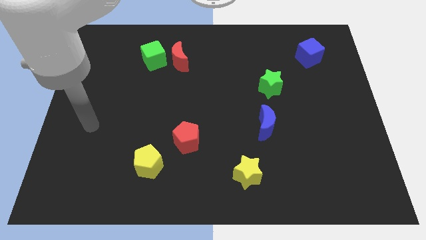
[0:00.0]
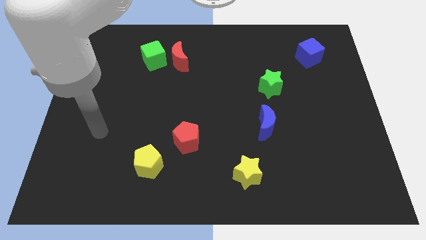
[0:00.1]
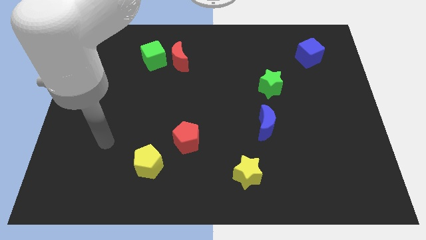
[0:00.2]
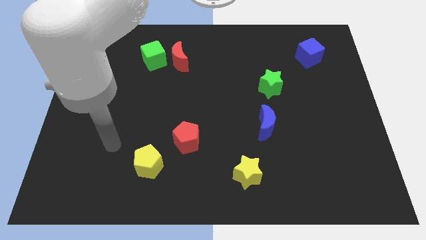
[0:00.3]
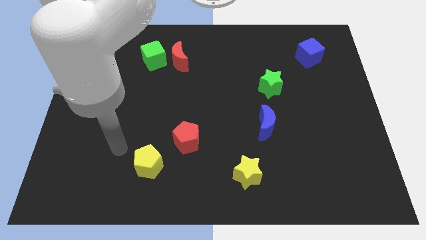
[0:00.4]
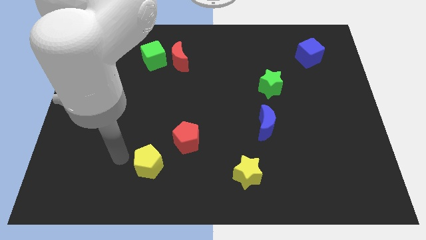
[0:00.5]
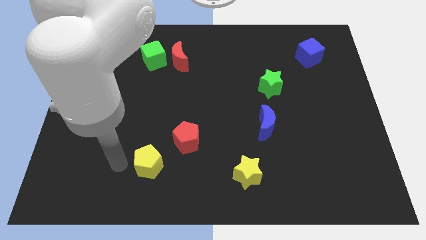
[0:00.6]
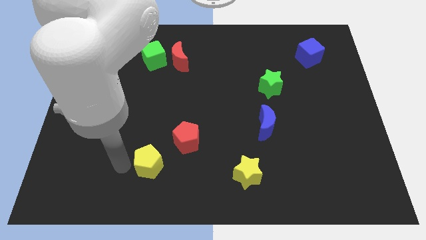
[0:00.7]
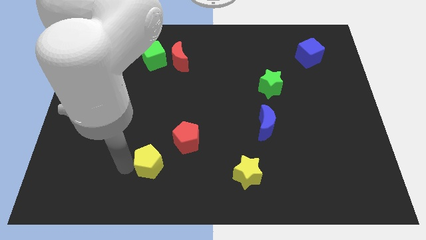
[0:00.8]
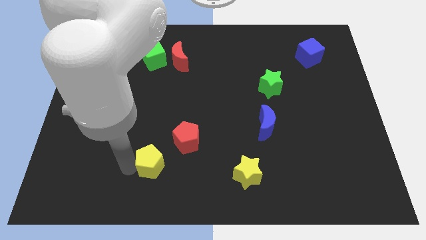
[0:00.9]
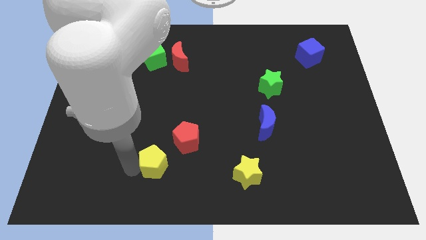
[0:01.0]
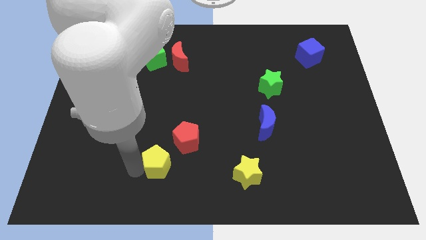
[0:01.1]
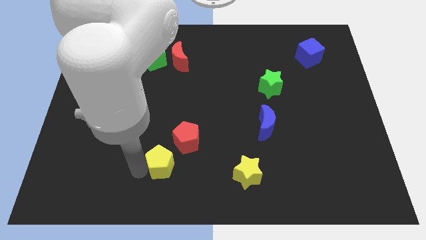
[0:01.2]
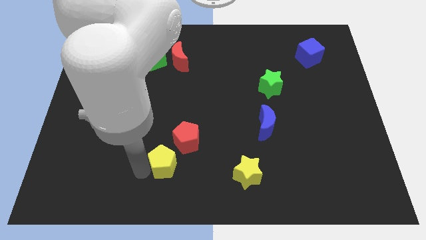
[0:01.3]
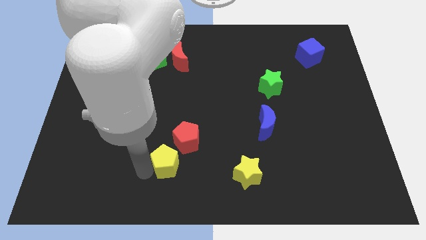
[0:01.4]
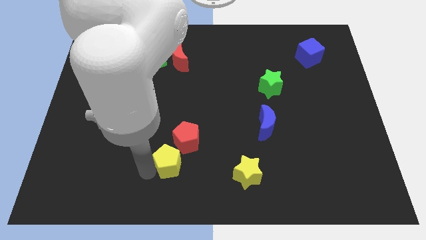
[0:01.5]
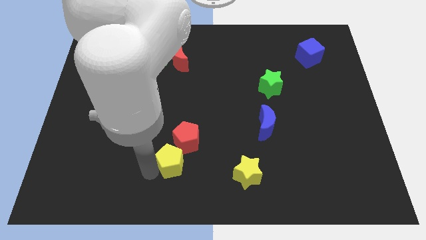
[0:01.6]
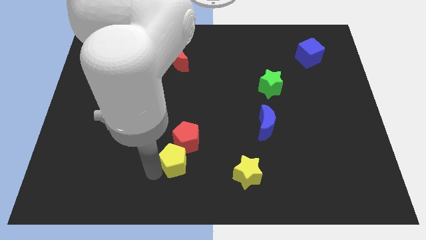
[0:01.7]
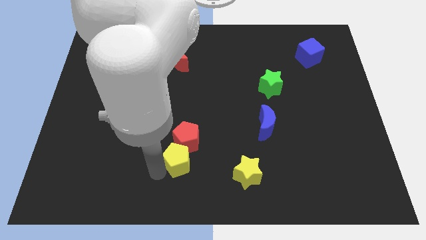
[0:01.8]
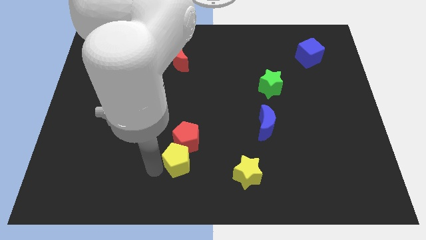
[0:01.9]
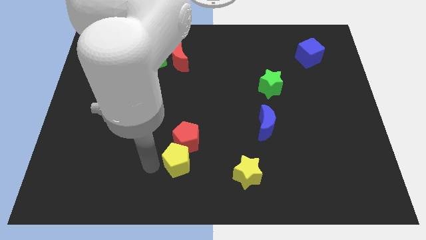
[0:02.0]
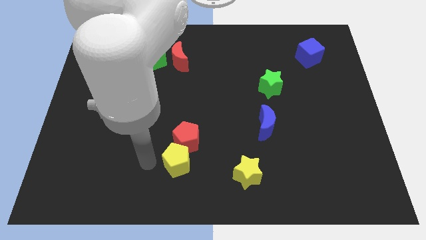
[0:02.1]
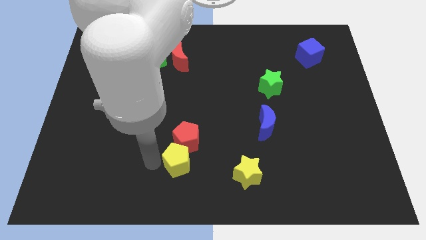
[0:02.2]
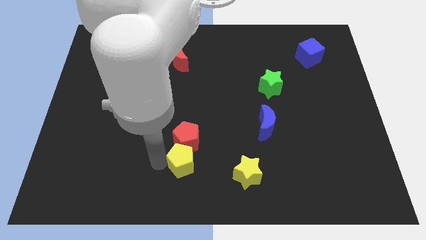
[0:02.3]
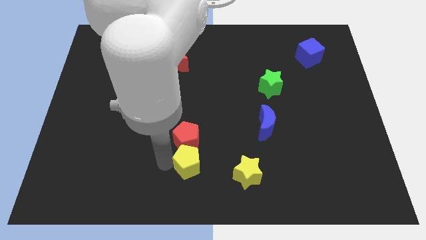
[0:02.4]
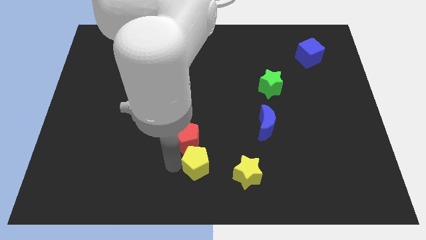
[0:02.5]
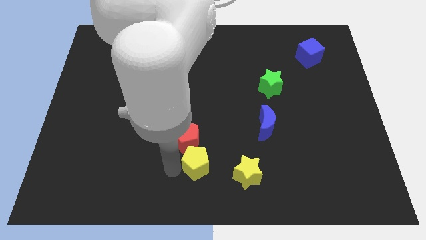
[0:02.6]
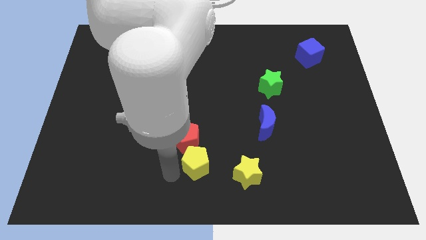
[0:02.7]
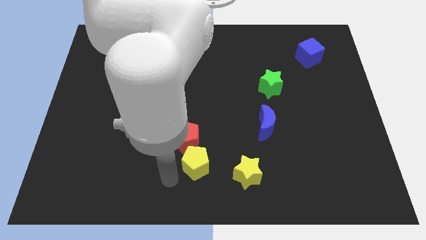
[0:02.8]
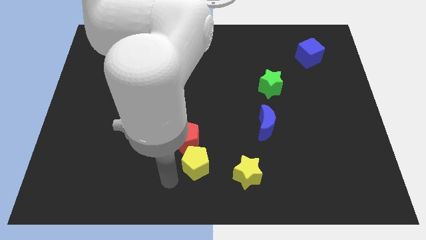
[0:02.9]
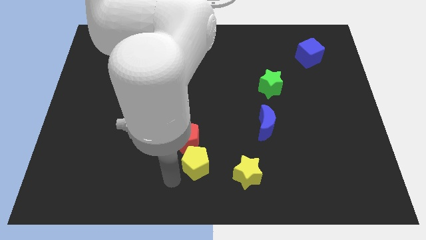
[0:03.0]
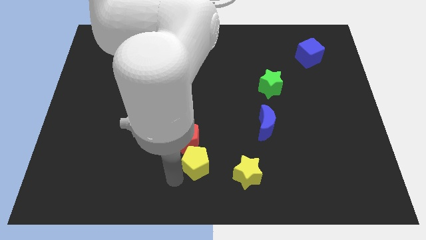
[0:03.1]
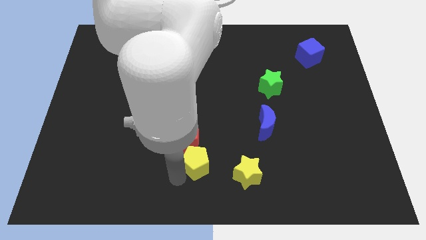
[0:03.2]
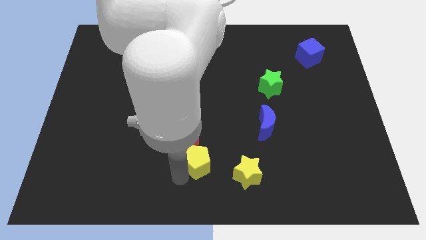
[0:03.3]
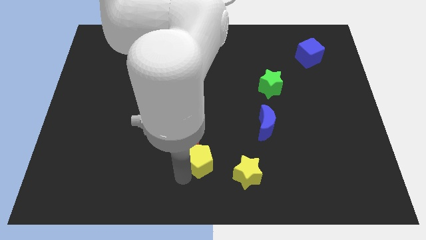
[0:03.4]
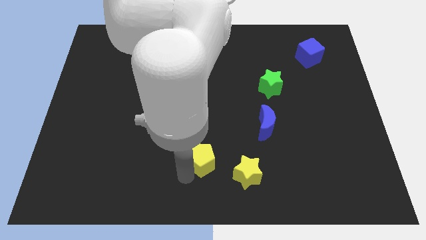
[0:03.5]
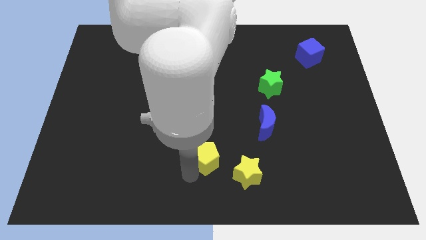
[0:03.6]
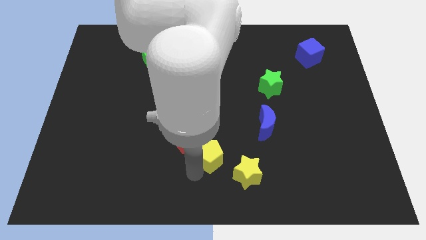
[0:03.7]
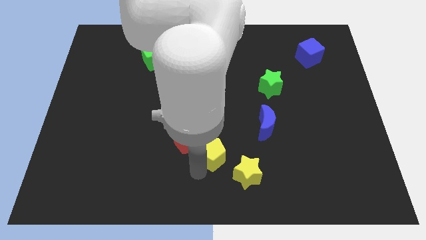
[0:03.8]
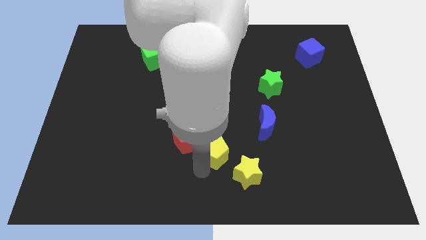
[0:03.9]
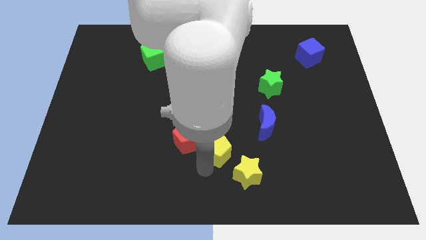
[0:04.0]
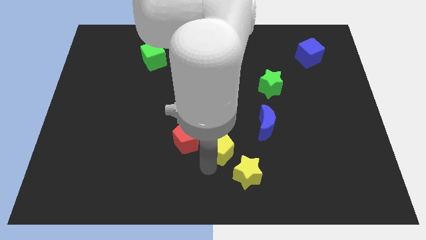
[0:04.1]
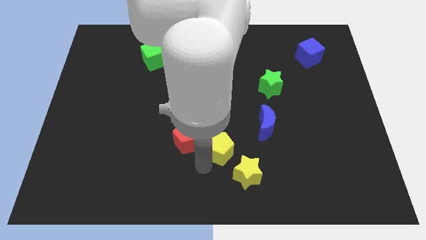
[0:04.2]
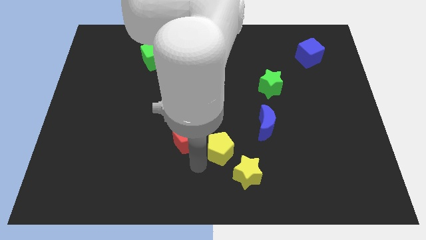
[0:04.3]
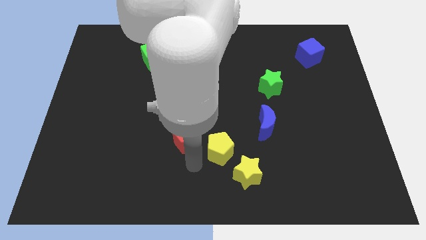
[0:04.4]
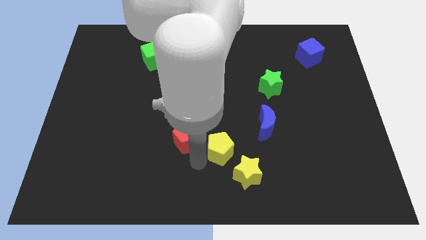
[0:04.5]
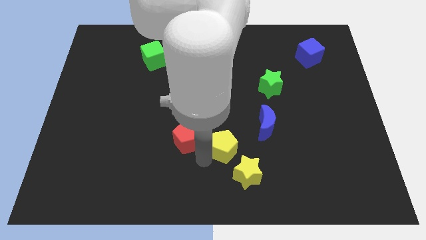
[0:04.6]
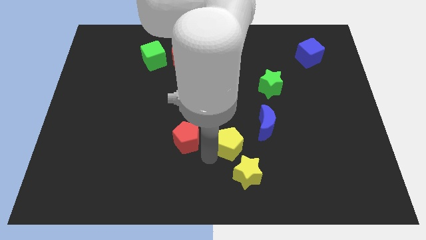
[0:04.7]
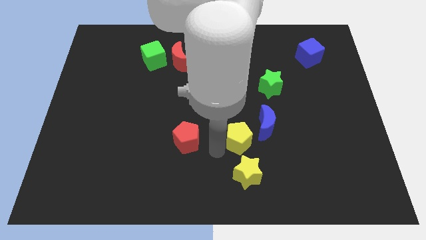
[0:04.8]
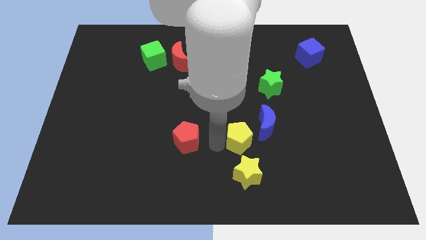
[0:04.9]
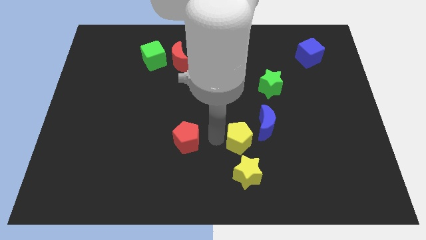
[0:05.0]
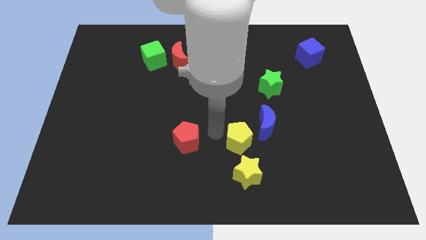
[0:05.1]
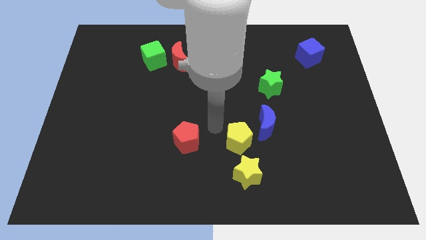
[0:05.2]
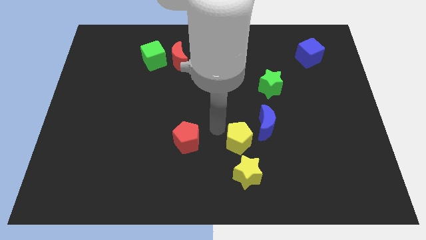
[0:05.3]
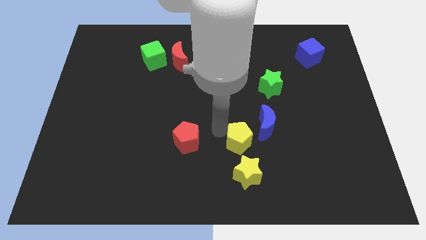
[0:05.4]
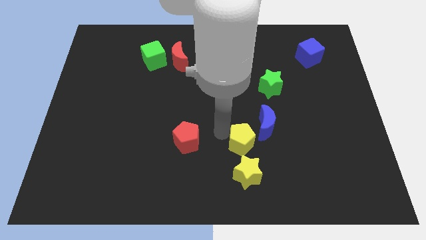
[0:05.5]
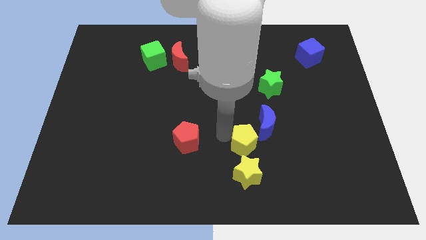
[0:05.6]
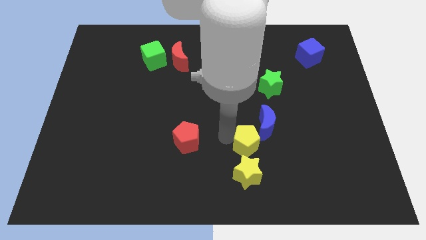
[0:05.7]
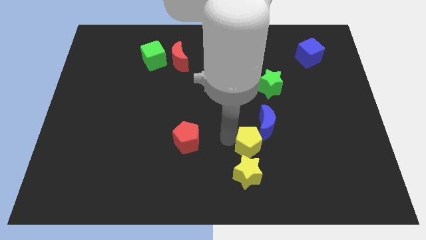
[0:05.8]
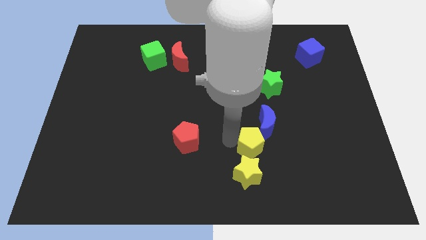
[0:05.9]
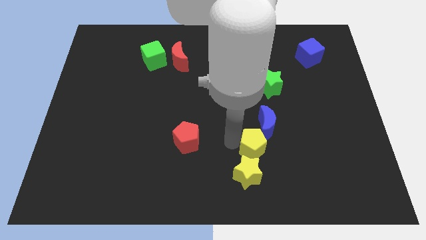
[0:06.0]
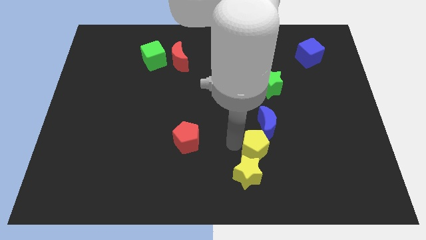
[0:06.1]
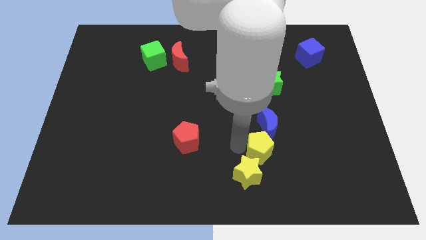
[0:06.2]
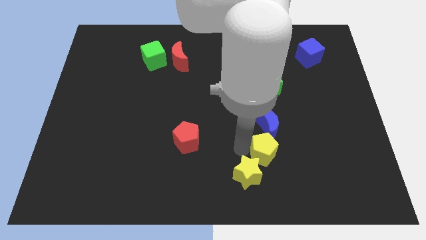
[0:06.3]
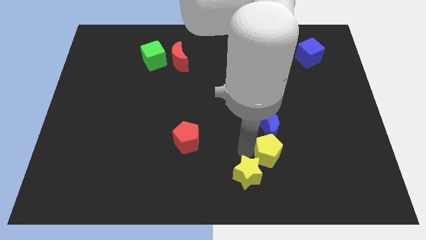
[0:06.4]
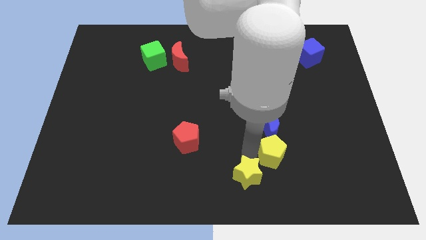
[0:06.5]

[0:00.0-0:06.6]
move the yellow pentagon to the right of the yellow star

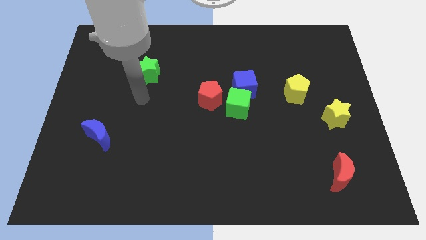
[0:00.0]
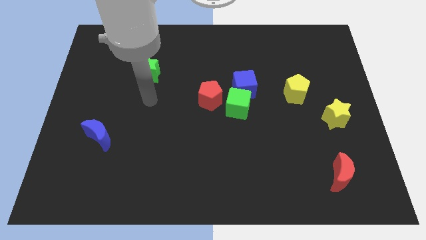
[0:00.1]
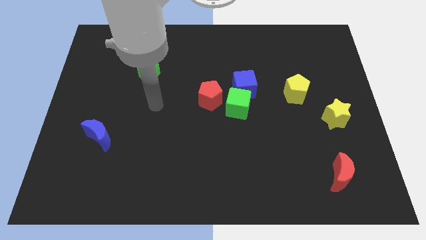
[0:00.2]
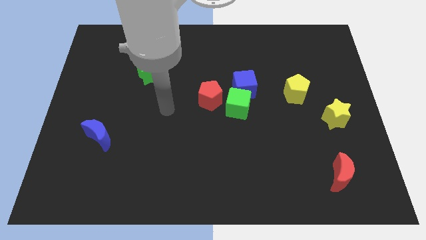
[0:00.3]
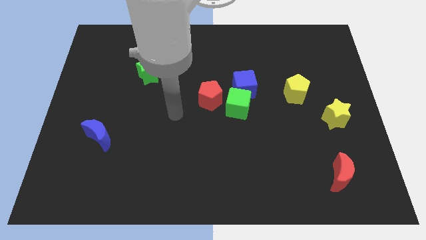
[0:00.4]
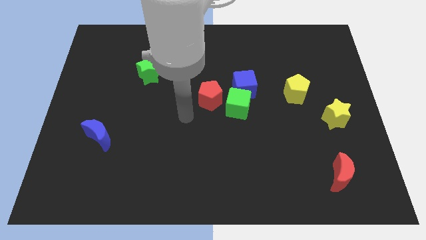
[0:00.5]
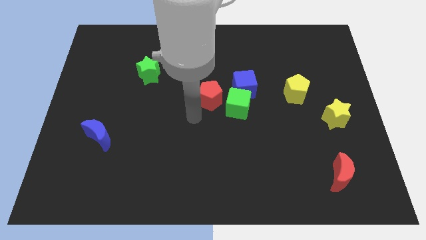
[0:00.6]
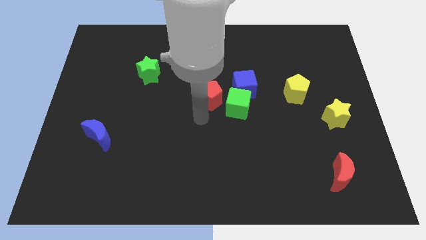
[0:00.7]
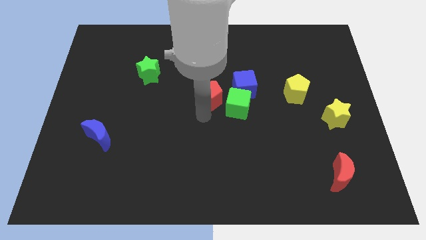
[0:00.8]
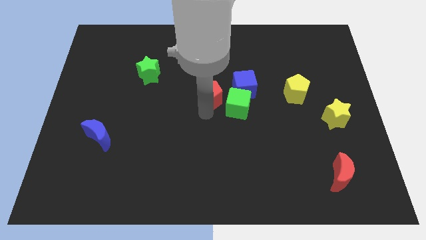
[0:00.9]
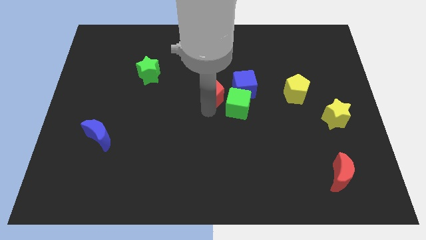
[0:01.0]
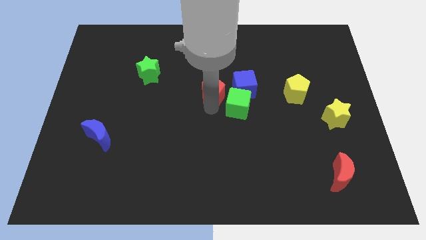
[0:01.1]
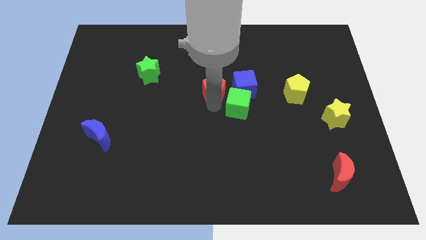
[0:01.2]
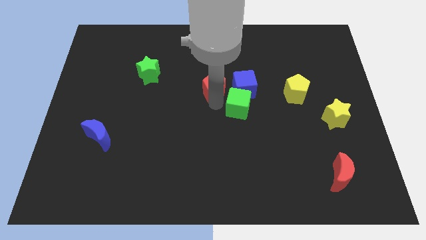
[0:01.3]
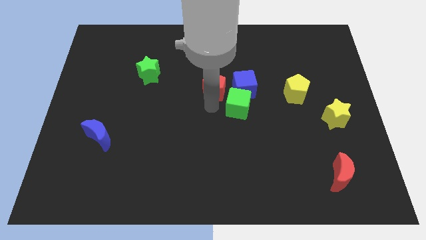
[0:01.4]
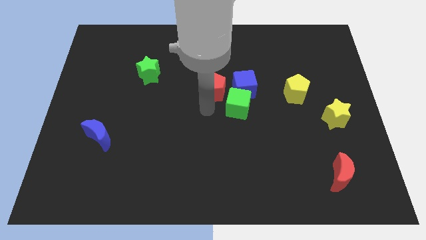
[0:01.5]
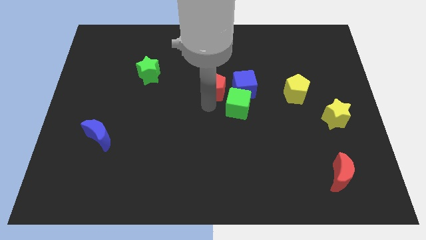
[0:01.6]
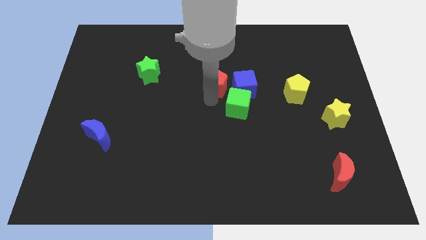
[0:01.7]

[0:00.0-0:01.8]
slide the red pentagon to the top left side of the blue cube
